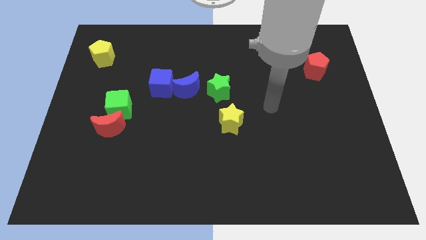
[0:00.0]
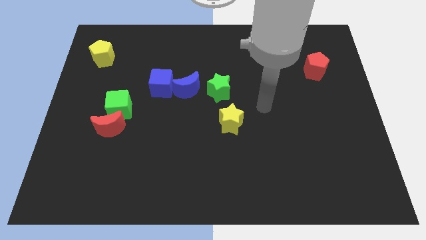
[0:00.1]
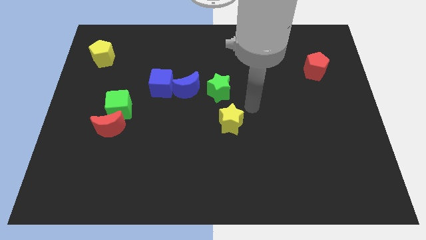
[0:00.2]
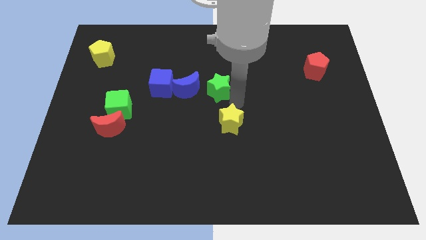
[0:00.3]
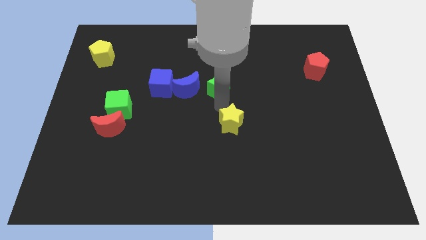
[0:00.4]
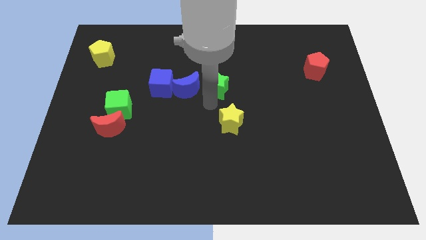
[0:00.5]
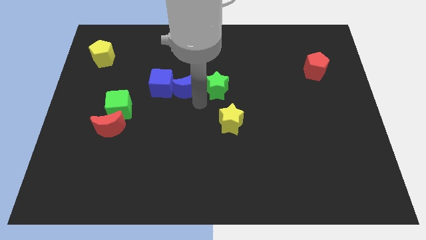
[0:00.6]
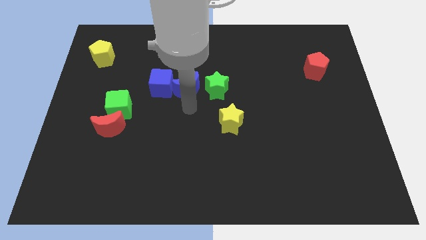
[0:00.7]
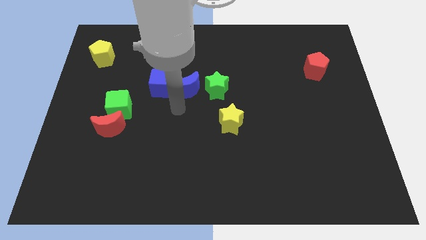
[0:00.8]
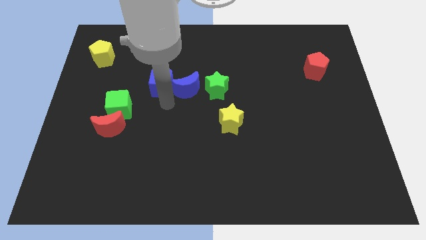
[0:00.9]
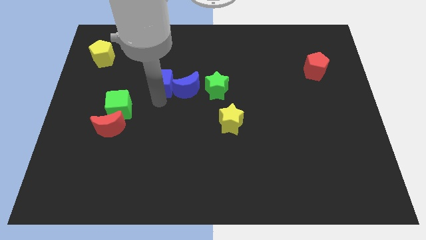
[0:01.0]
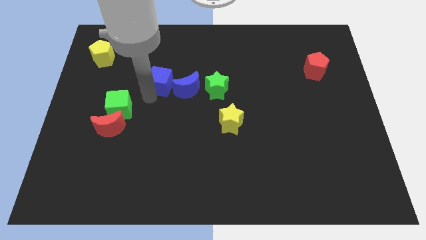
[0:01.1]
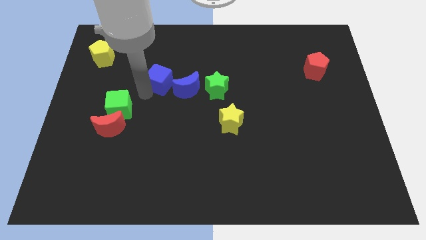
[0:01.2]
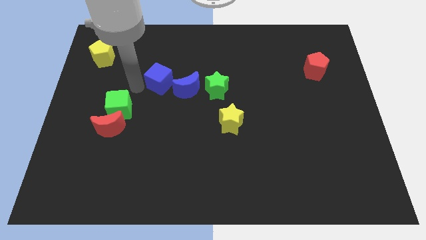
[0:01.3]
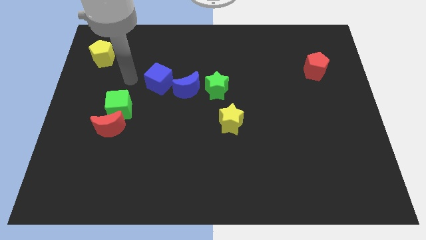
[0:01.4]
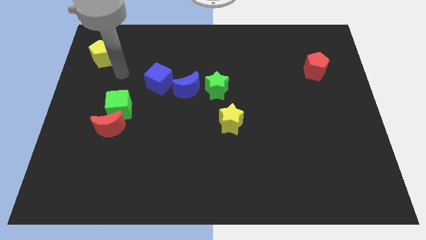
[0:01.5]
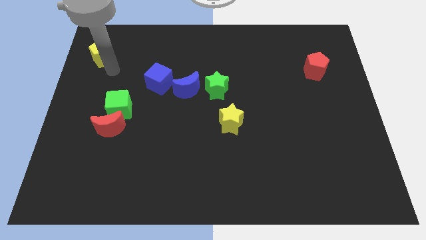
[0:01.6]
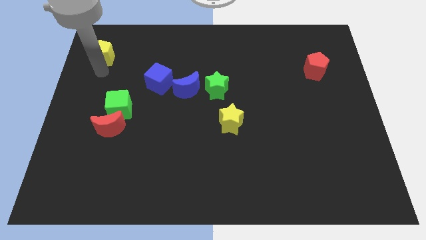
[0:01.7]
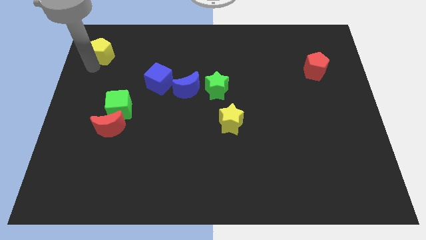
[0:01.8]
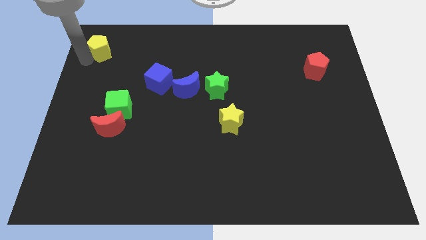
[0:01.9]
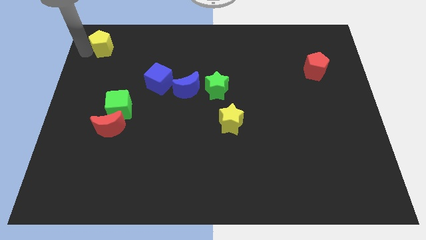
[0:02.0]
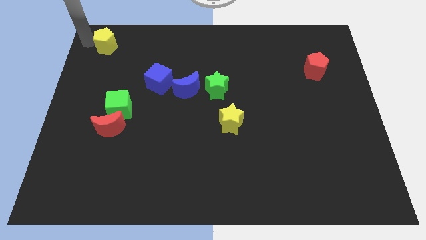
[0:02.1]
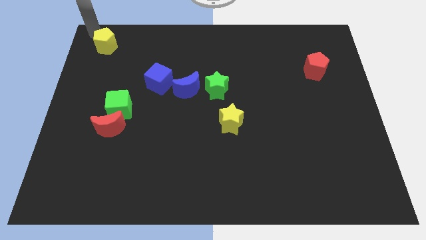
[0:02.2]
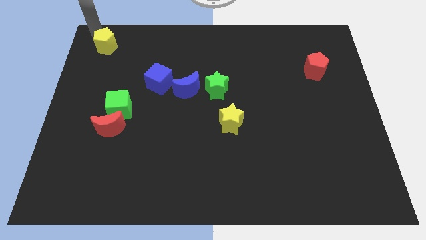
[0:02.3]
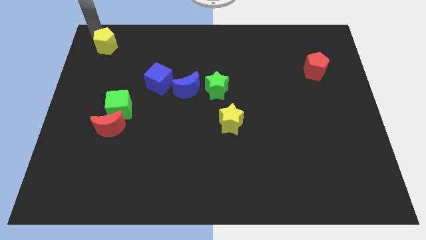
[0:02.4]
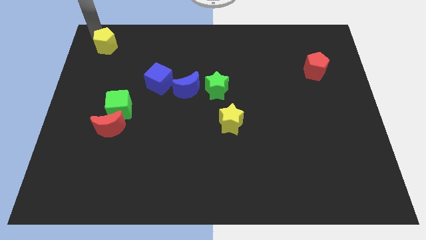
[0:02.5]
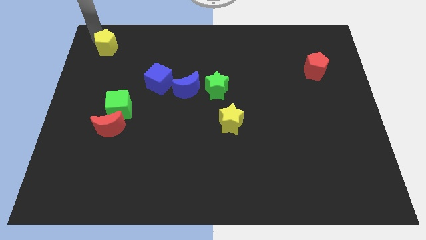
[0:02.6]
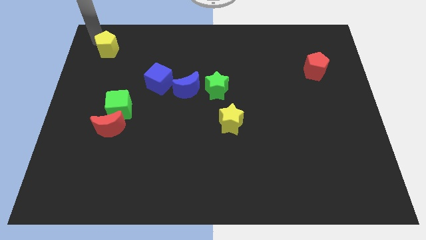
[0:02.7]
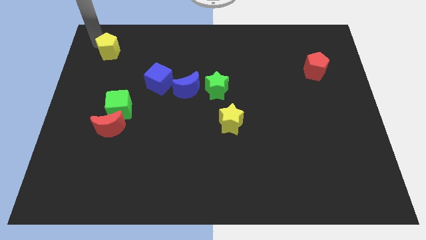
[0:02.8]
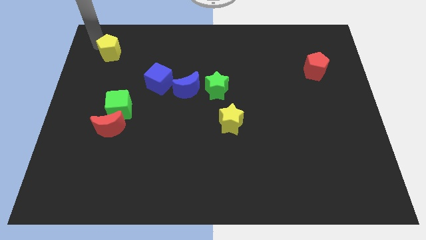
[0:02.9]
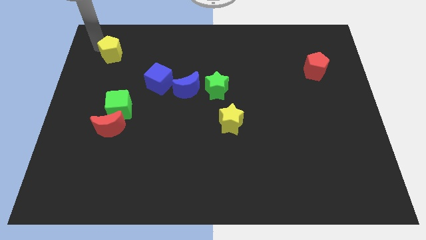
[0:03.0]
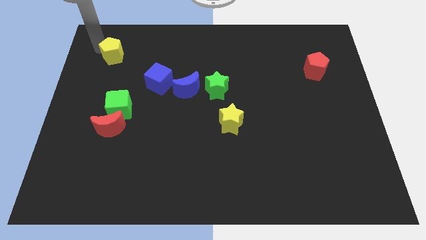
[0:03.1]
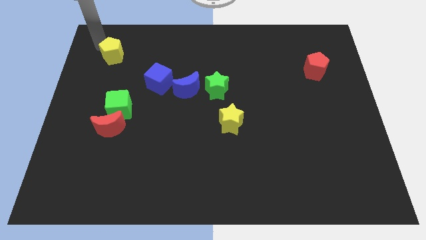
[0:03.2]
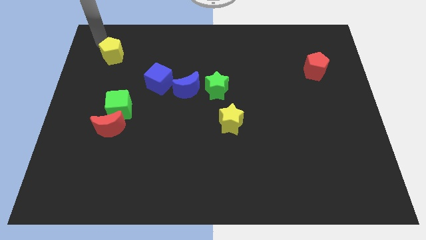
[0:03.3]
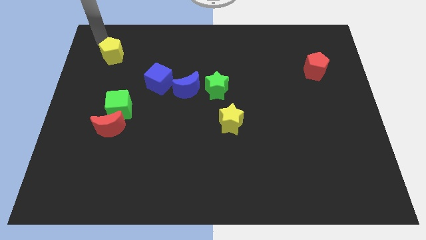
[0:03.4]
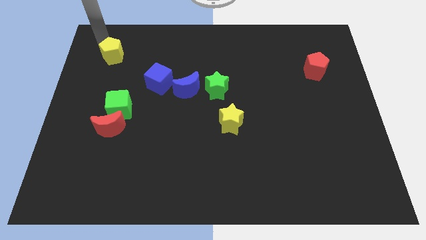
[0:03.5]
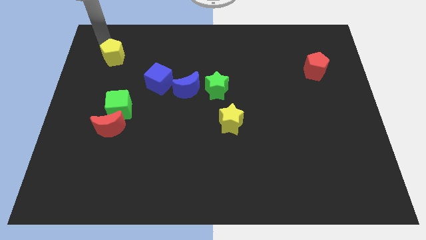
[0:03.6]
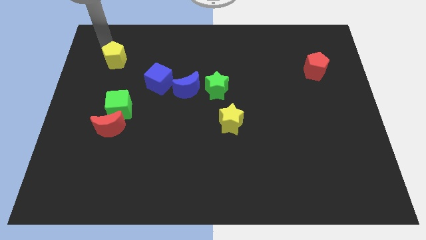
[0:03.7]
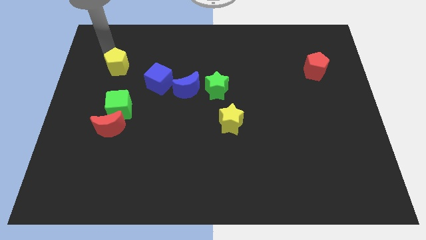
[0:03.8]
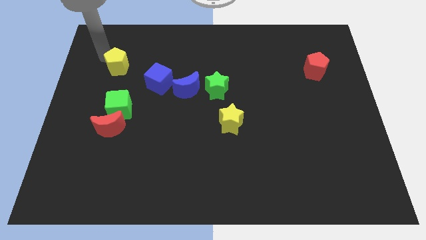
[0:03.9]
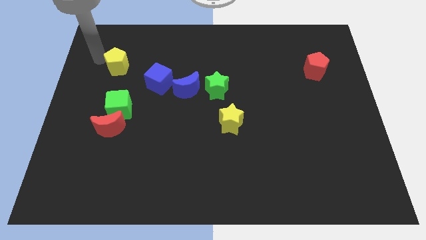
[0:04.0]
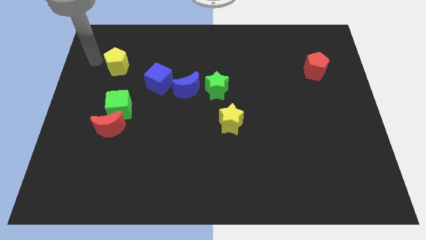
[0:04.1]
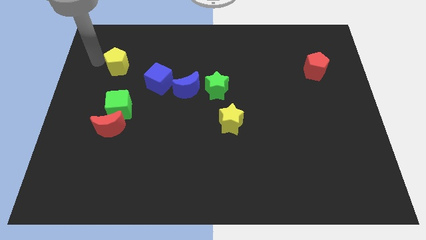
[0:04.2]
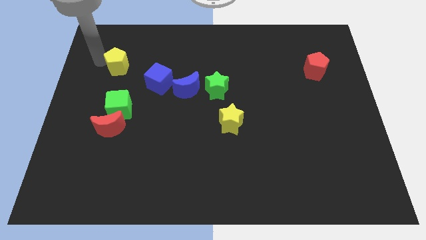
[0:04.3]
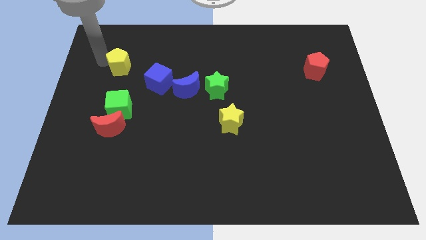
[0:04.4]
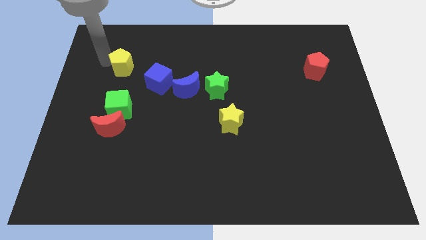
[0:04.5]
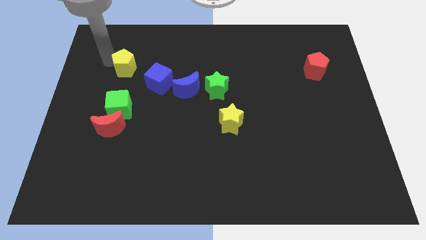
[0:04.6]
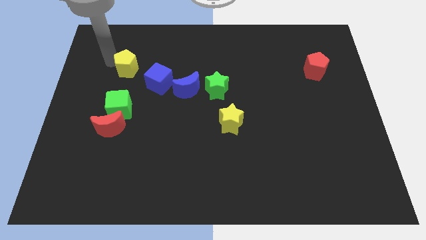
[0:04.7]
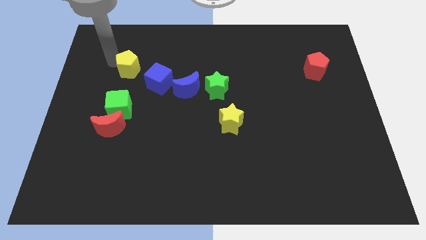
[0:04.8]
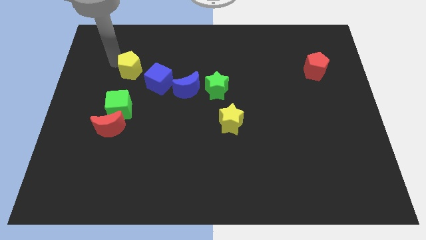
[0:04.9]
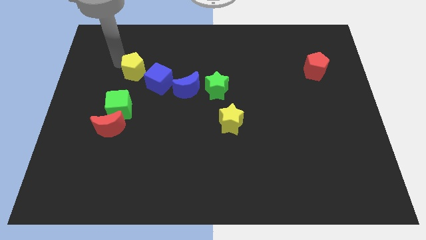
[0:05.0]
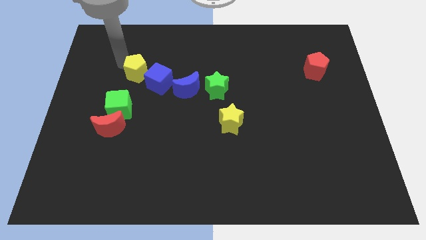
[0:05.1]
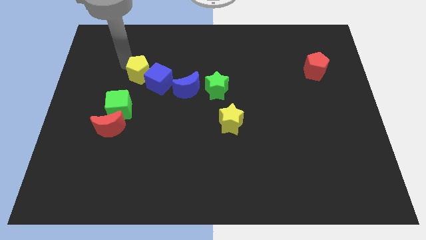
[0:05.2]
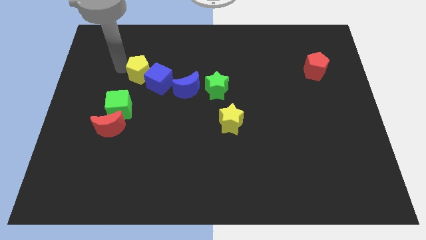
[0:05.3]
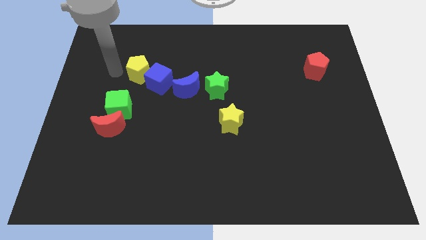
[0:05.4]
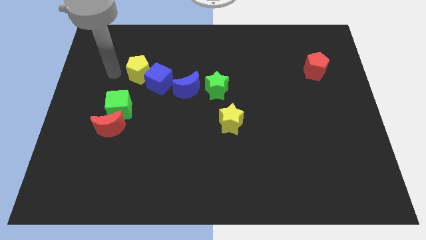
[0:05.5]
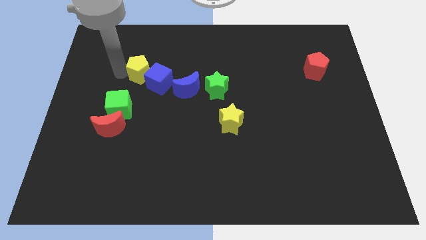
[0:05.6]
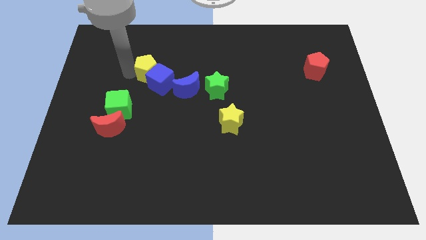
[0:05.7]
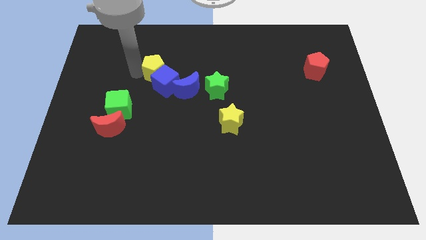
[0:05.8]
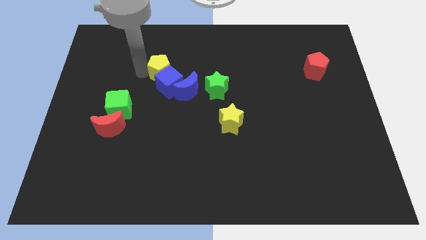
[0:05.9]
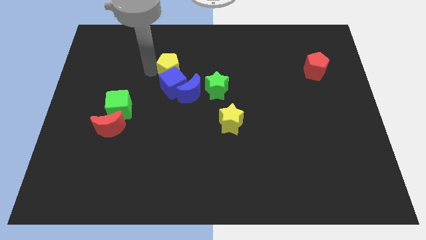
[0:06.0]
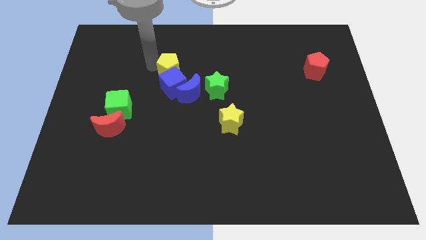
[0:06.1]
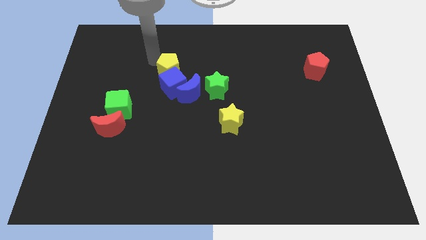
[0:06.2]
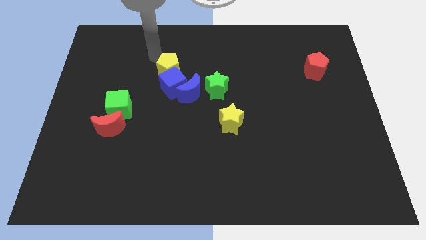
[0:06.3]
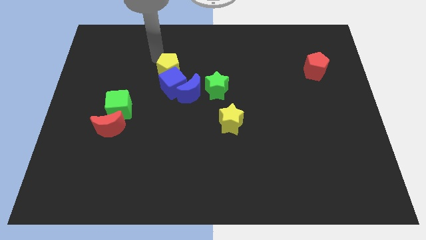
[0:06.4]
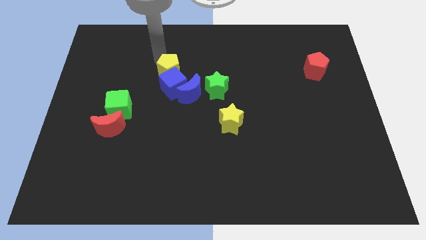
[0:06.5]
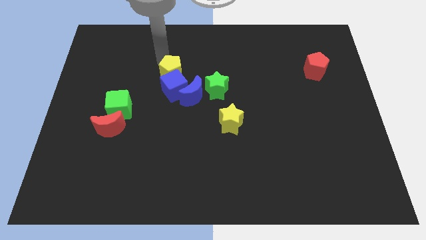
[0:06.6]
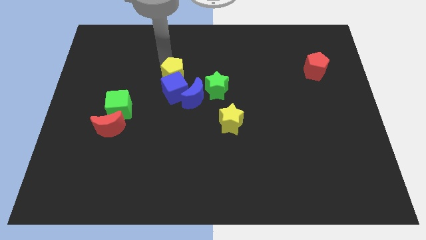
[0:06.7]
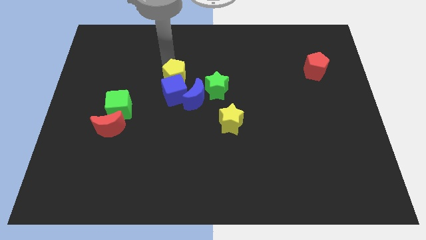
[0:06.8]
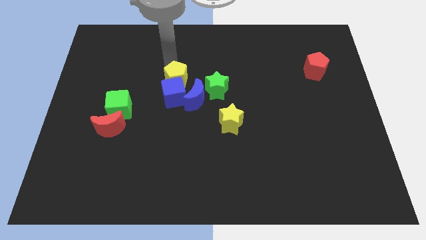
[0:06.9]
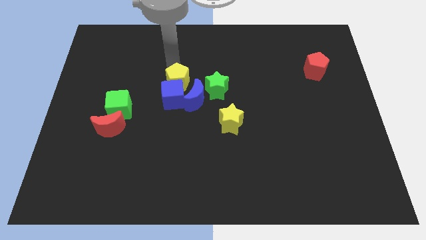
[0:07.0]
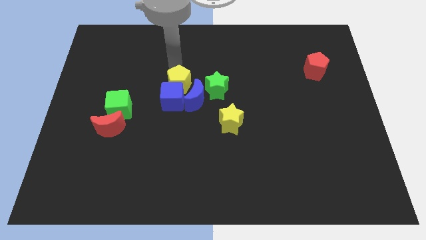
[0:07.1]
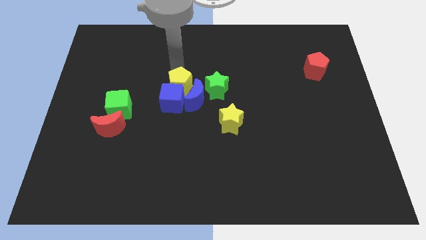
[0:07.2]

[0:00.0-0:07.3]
put the yellow pentagon to the blue moon
